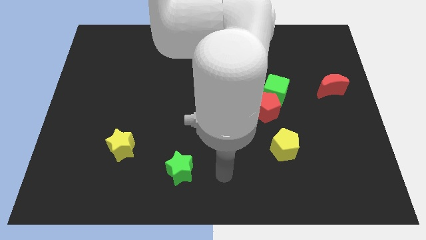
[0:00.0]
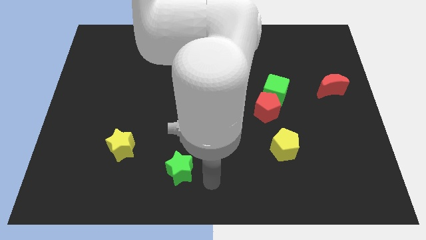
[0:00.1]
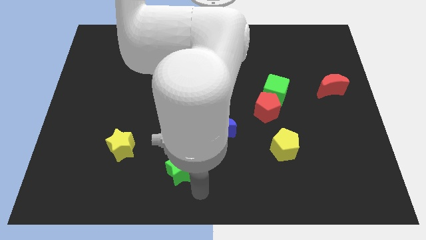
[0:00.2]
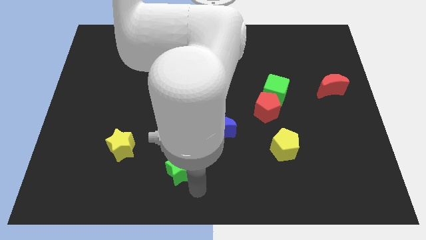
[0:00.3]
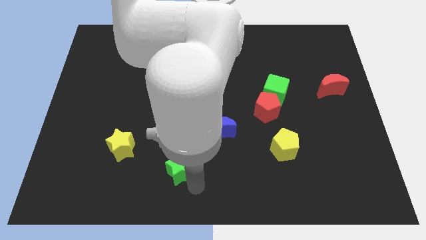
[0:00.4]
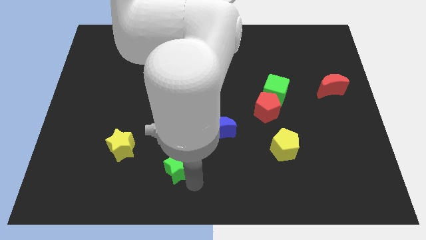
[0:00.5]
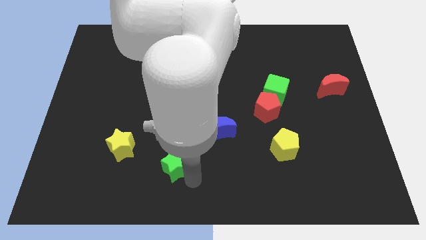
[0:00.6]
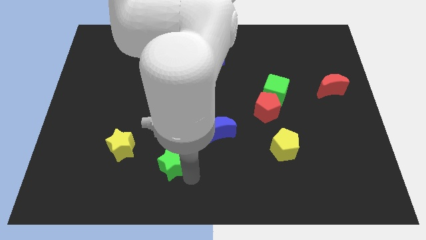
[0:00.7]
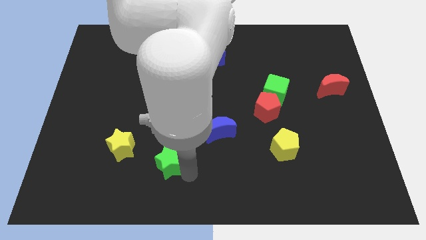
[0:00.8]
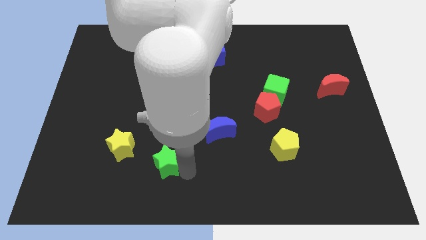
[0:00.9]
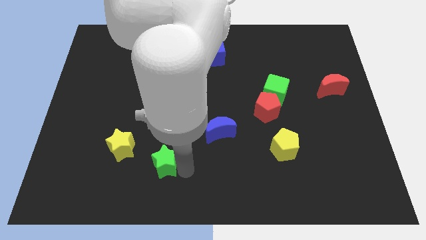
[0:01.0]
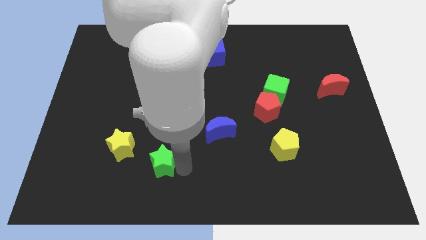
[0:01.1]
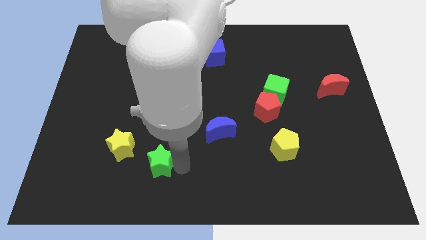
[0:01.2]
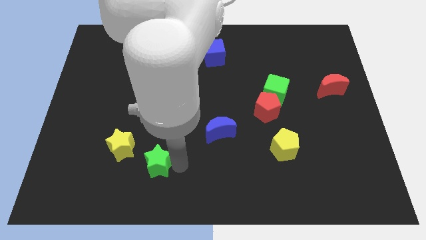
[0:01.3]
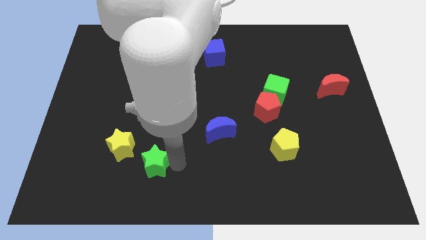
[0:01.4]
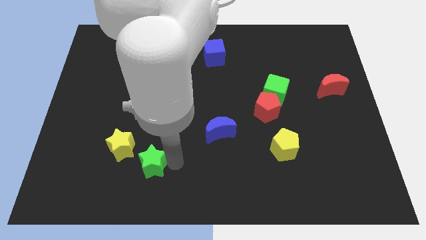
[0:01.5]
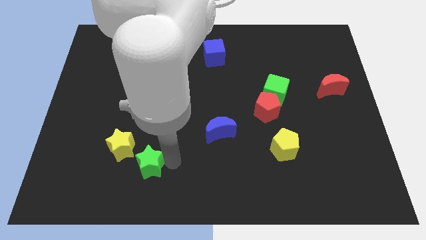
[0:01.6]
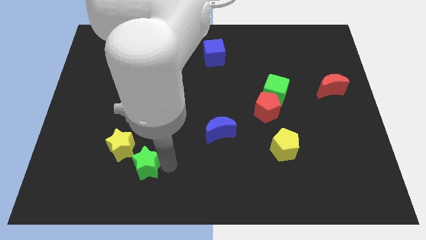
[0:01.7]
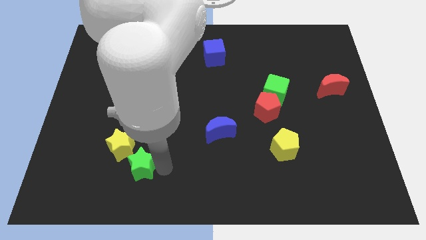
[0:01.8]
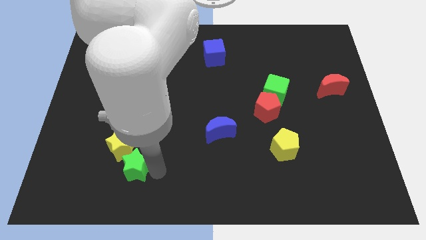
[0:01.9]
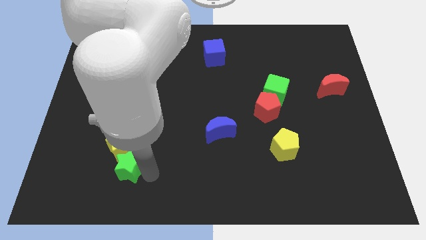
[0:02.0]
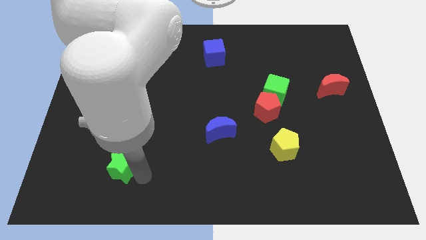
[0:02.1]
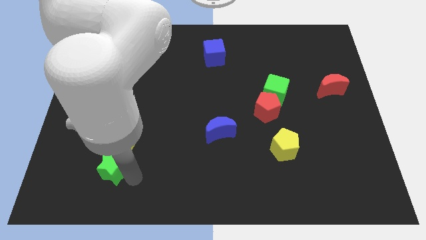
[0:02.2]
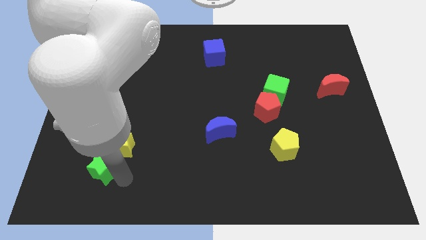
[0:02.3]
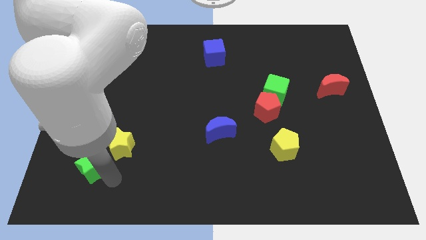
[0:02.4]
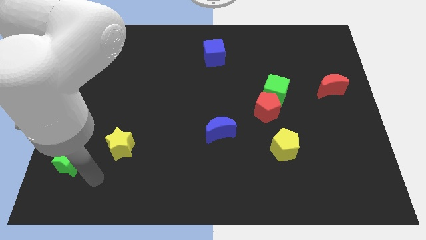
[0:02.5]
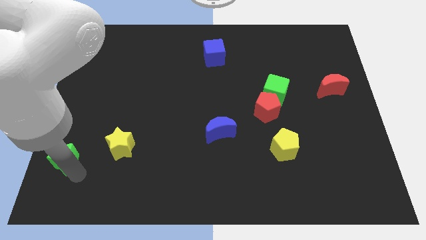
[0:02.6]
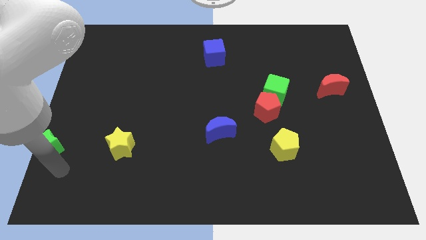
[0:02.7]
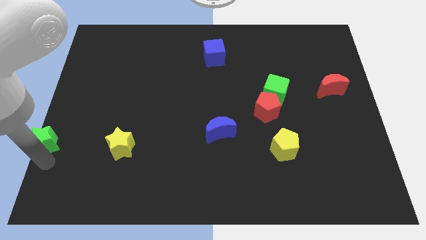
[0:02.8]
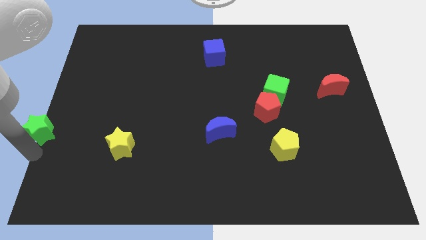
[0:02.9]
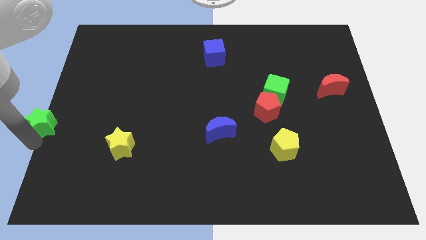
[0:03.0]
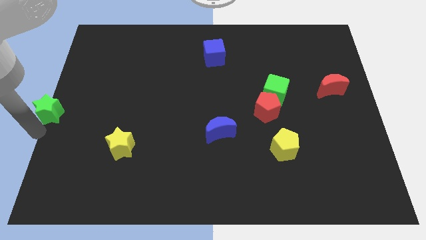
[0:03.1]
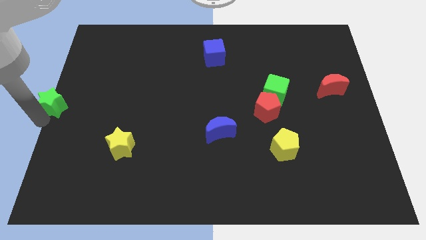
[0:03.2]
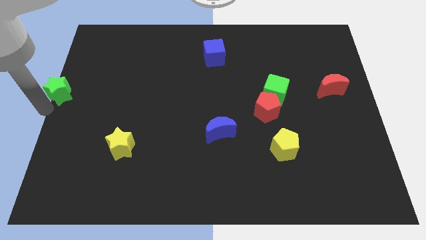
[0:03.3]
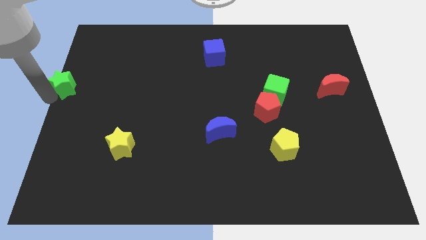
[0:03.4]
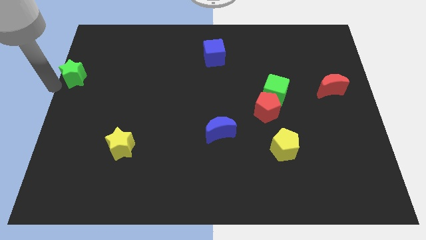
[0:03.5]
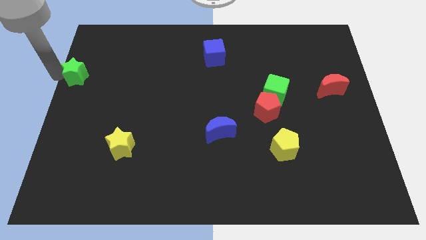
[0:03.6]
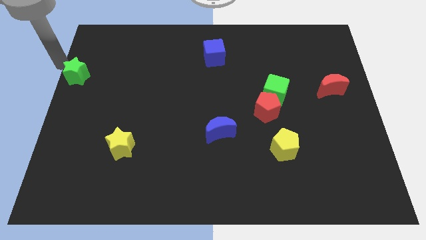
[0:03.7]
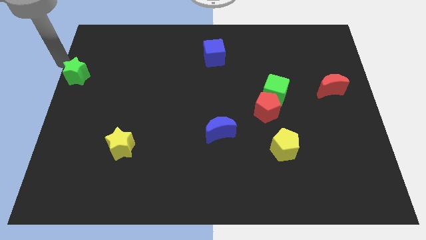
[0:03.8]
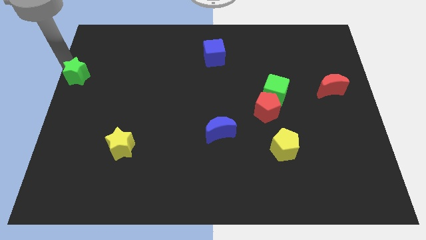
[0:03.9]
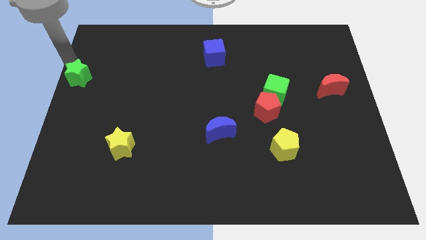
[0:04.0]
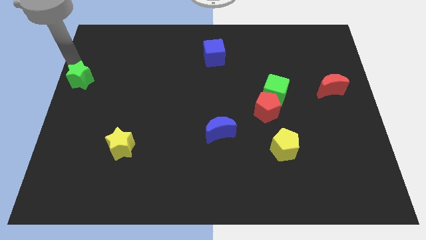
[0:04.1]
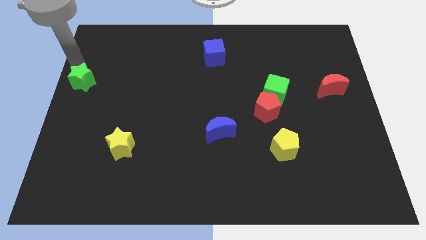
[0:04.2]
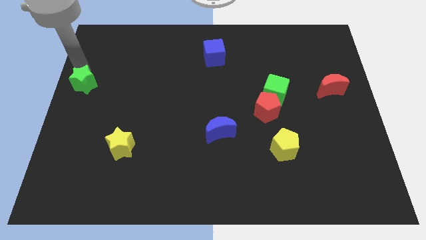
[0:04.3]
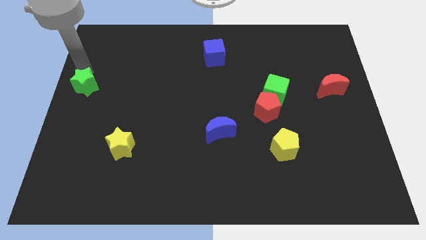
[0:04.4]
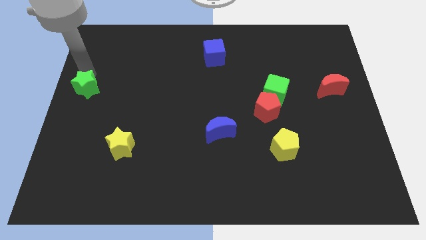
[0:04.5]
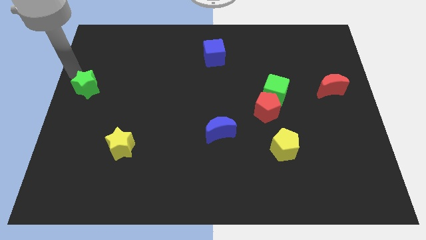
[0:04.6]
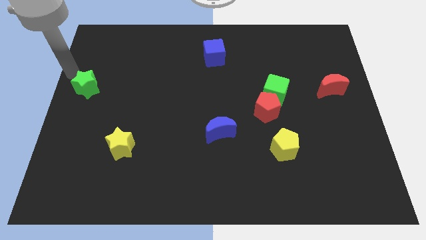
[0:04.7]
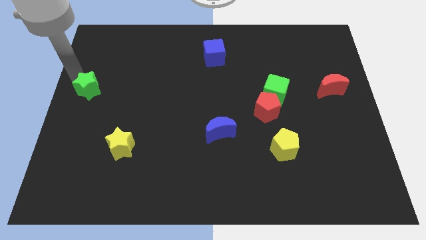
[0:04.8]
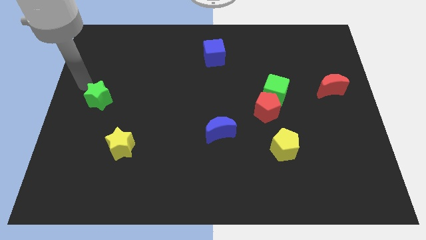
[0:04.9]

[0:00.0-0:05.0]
move the green star diagonally up and left a little bit

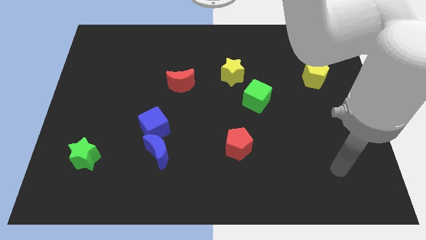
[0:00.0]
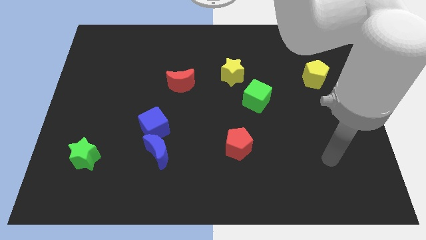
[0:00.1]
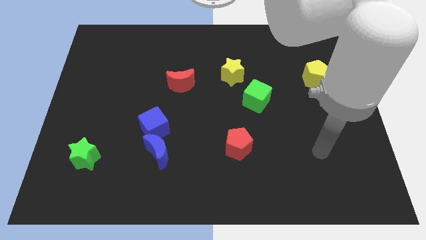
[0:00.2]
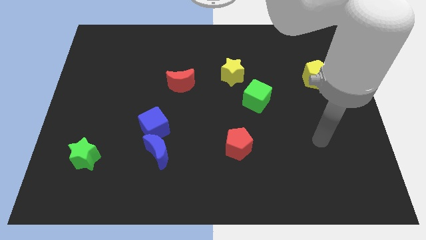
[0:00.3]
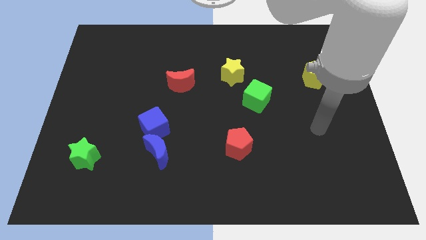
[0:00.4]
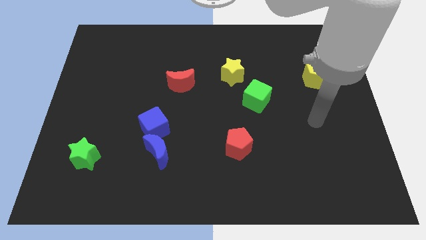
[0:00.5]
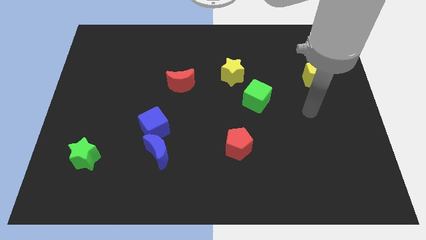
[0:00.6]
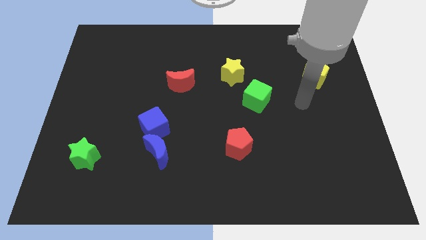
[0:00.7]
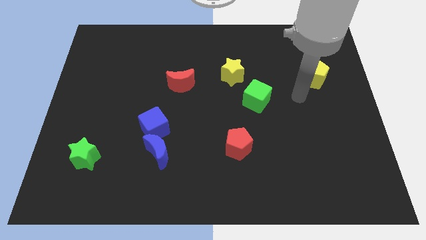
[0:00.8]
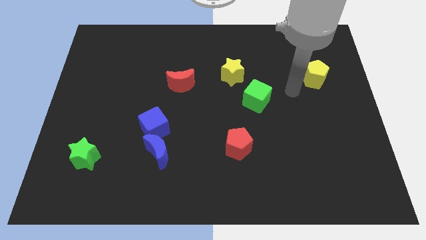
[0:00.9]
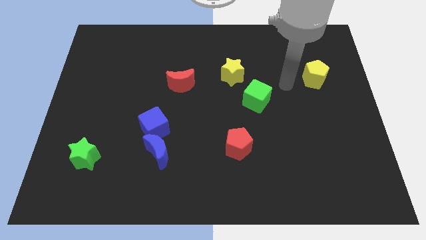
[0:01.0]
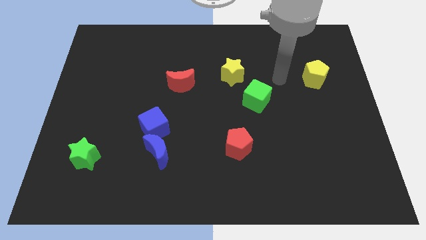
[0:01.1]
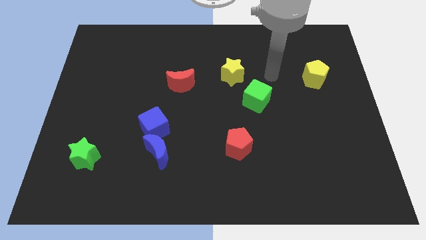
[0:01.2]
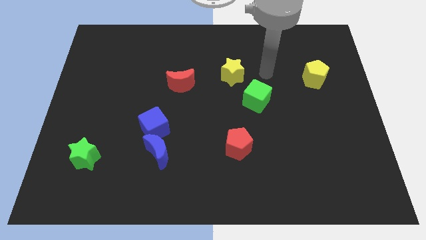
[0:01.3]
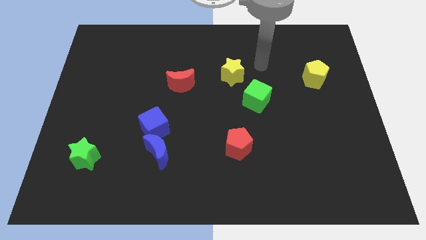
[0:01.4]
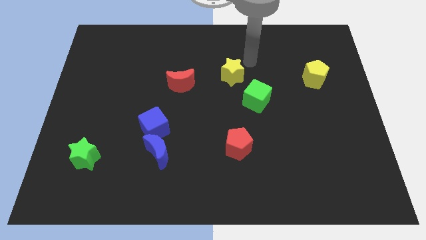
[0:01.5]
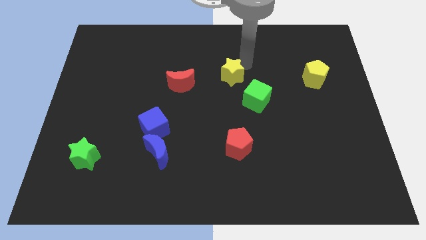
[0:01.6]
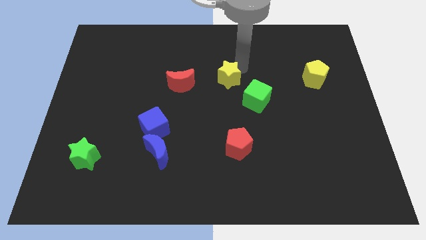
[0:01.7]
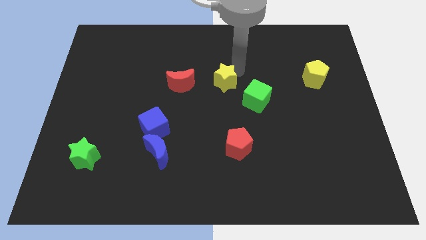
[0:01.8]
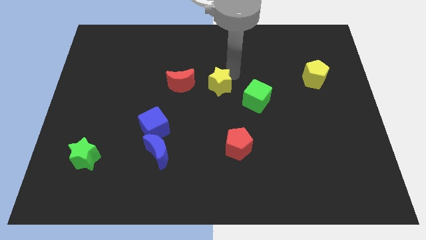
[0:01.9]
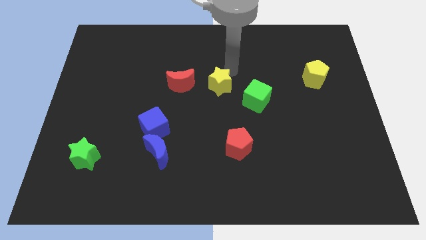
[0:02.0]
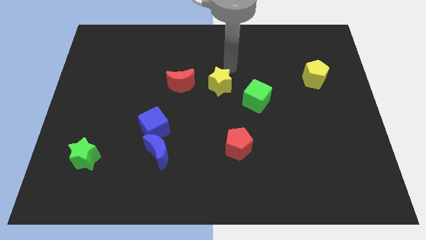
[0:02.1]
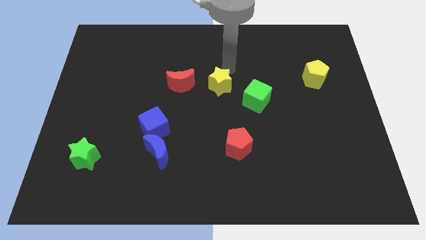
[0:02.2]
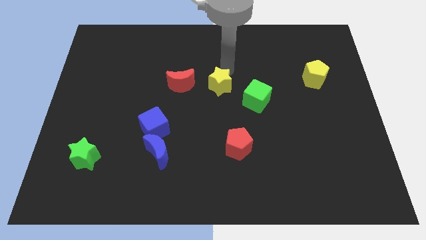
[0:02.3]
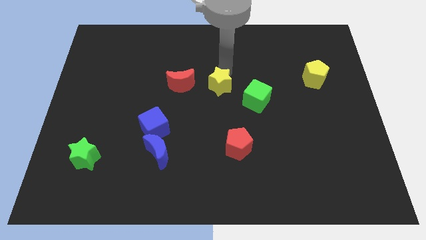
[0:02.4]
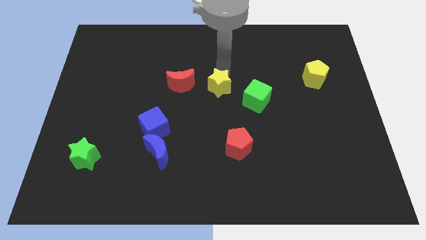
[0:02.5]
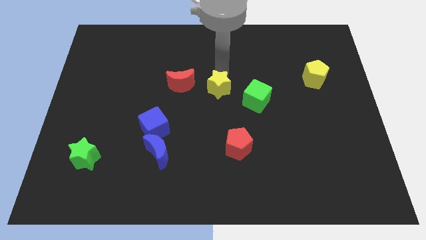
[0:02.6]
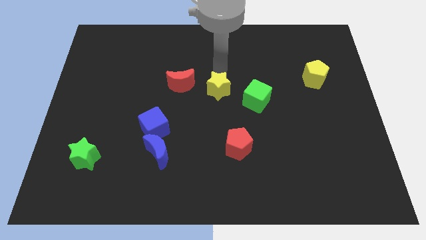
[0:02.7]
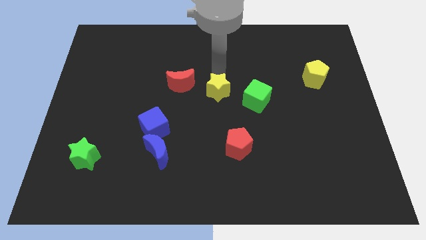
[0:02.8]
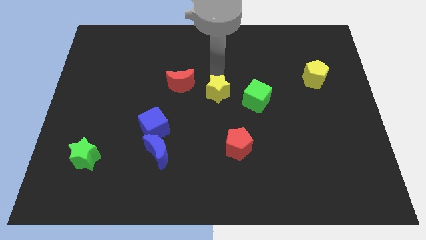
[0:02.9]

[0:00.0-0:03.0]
move the yellow star a little diagonally down and to the left
